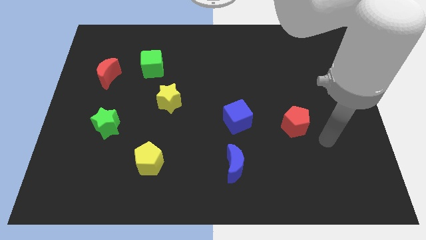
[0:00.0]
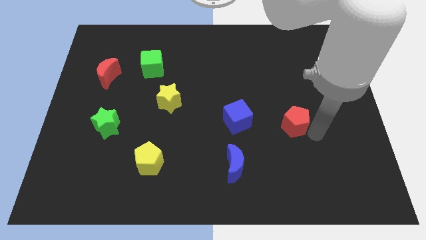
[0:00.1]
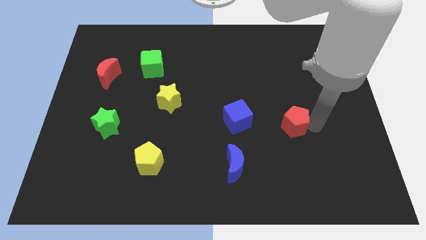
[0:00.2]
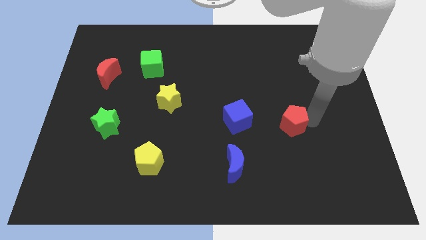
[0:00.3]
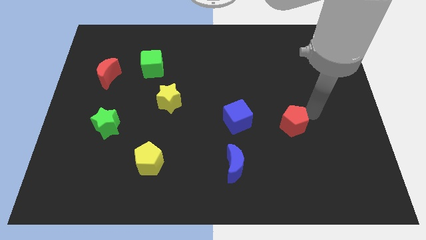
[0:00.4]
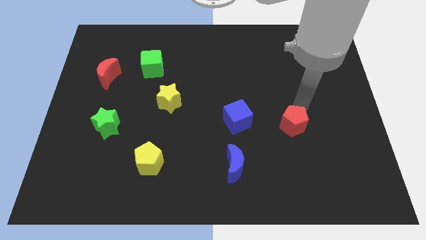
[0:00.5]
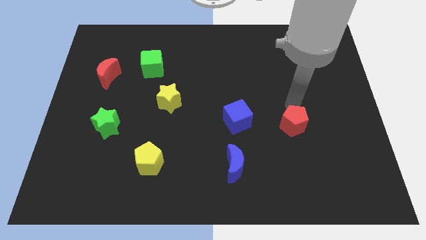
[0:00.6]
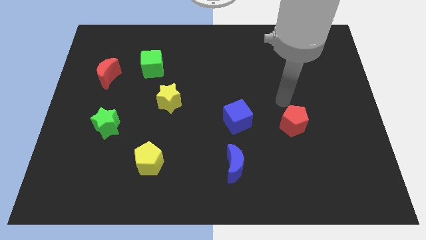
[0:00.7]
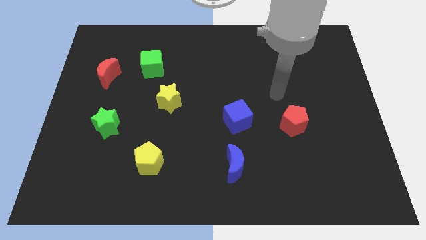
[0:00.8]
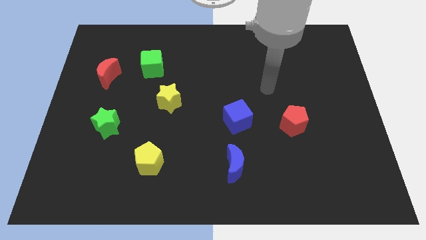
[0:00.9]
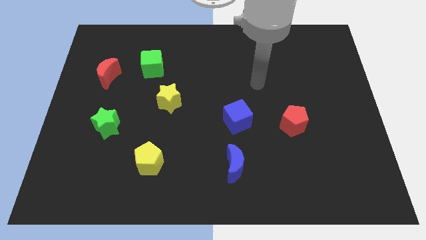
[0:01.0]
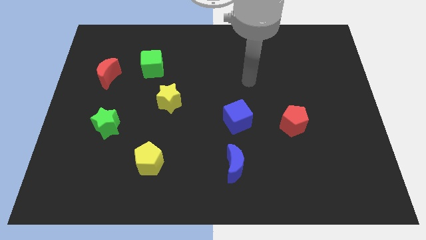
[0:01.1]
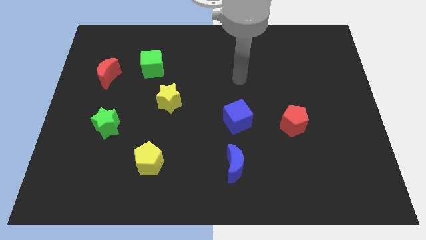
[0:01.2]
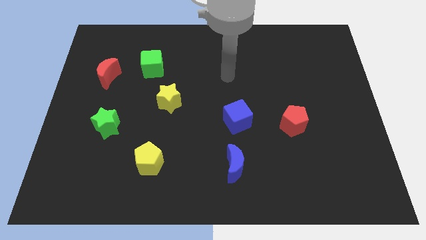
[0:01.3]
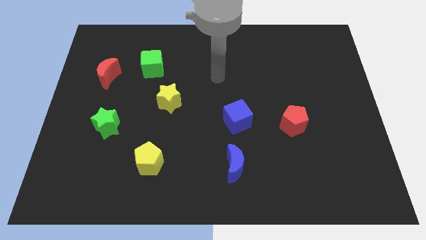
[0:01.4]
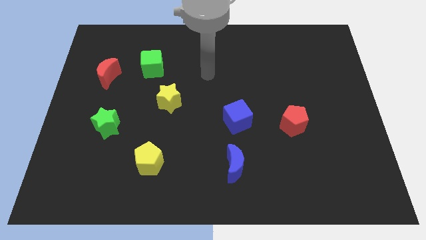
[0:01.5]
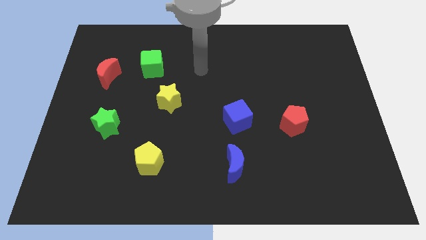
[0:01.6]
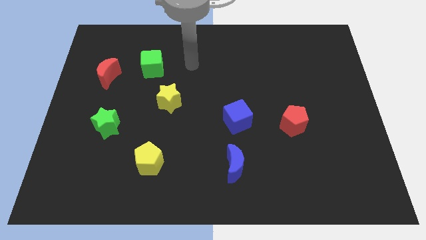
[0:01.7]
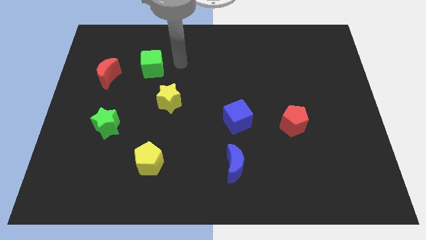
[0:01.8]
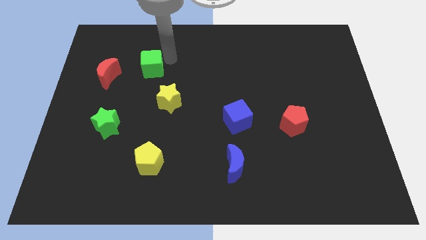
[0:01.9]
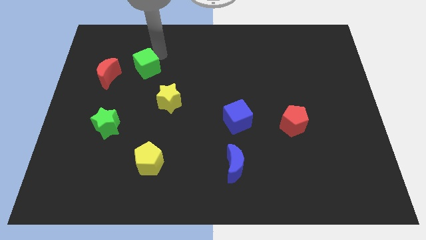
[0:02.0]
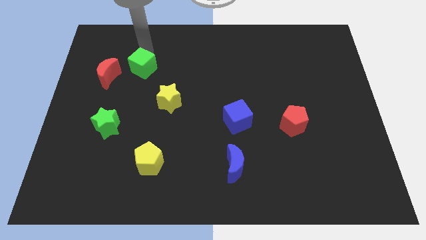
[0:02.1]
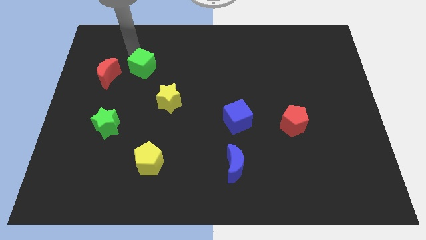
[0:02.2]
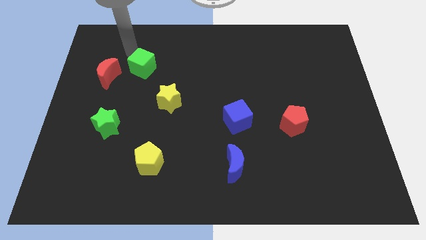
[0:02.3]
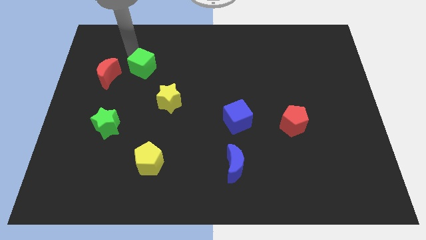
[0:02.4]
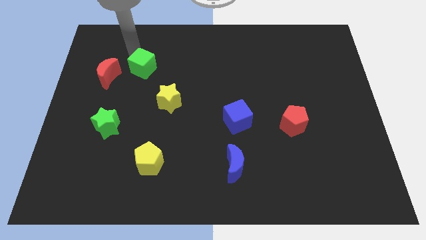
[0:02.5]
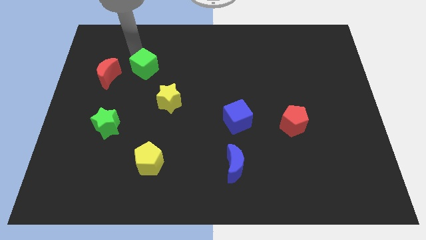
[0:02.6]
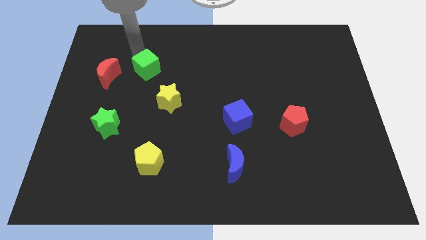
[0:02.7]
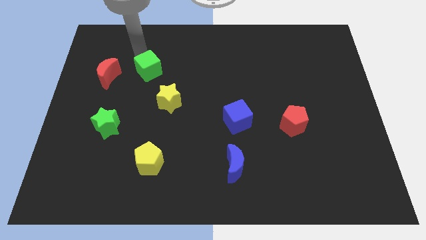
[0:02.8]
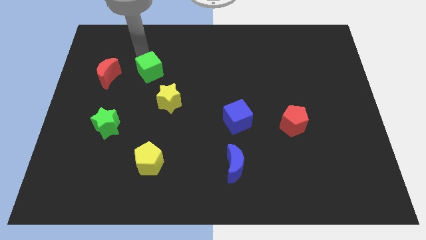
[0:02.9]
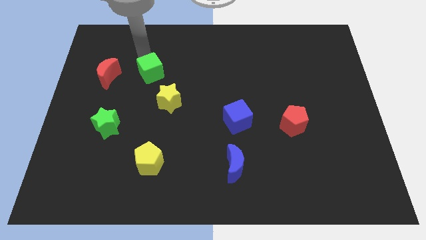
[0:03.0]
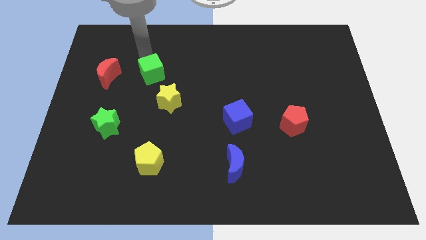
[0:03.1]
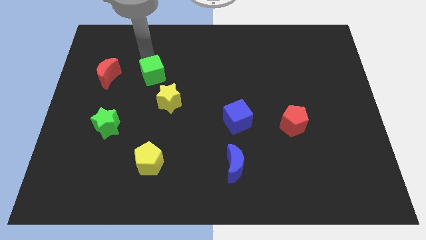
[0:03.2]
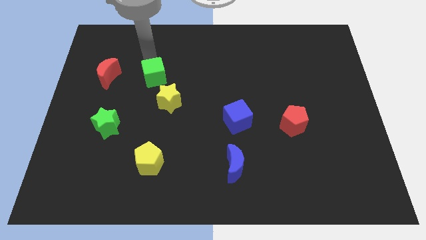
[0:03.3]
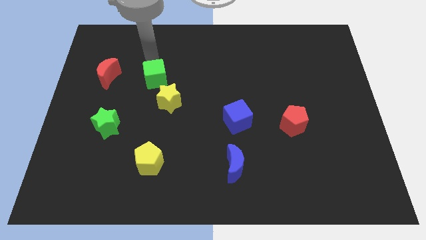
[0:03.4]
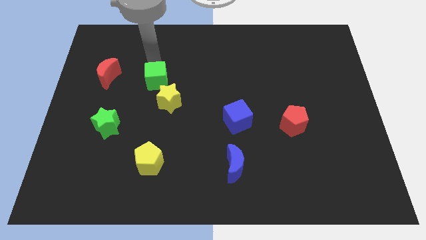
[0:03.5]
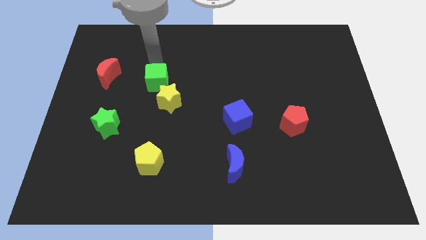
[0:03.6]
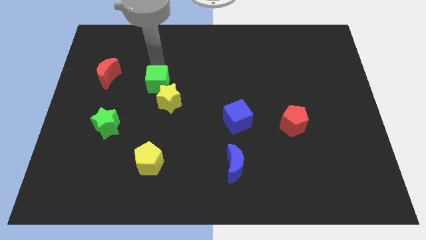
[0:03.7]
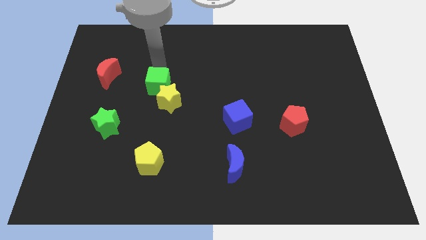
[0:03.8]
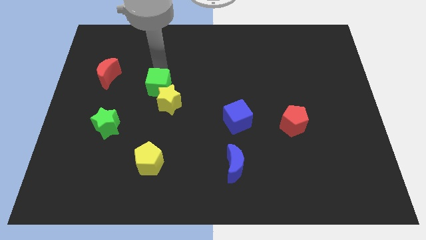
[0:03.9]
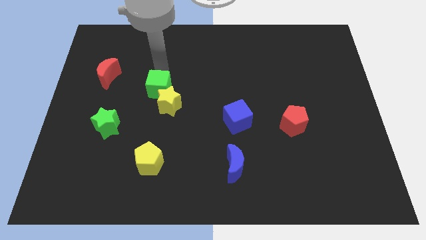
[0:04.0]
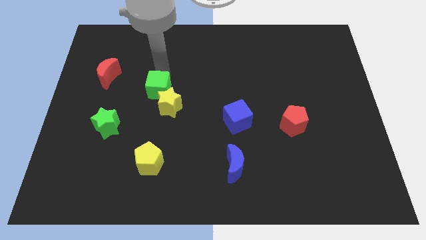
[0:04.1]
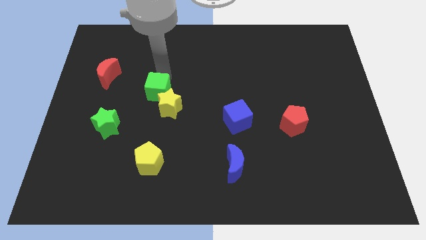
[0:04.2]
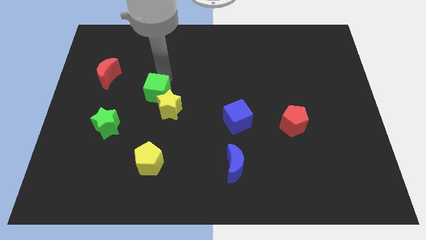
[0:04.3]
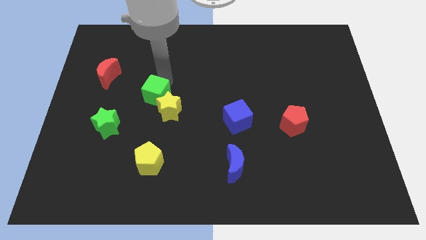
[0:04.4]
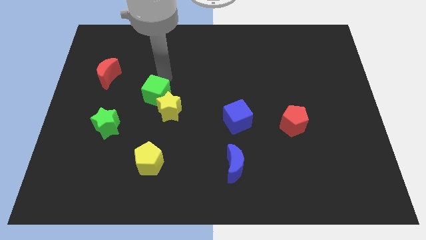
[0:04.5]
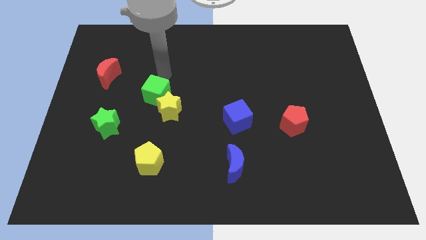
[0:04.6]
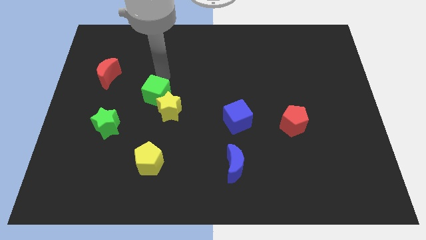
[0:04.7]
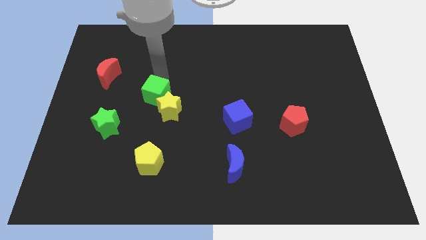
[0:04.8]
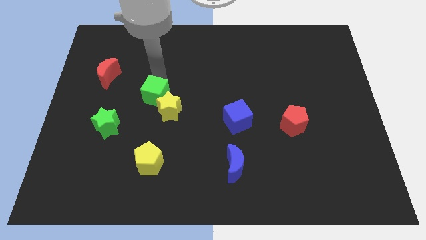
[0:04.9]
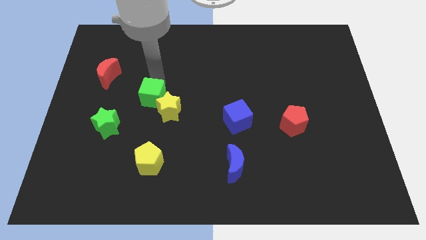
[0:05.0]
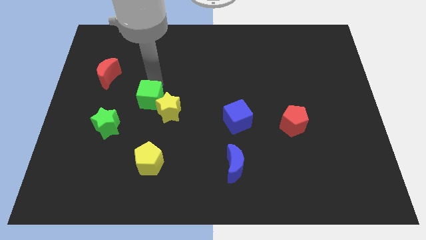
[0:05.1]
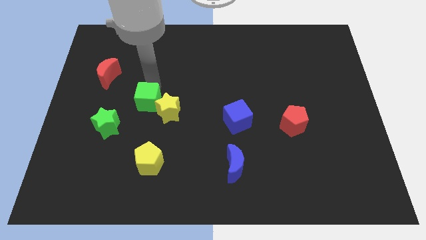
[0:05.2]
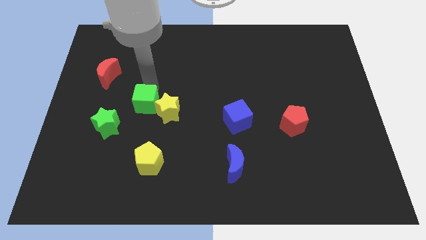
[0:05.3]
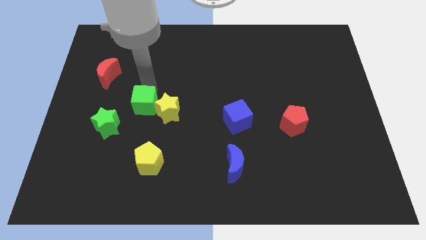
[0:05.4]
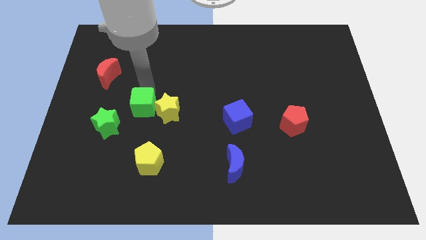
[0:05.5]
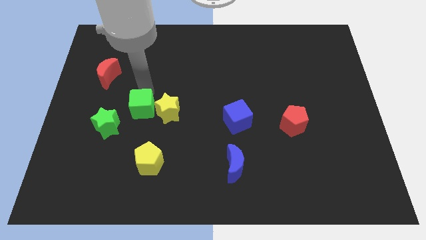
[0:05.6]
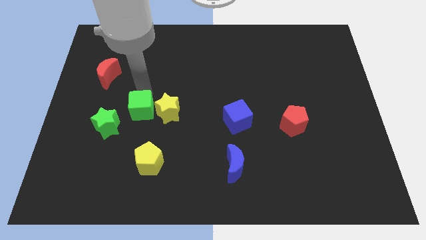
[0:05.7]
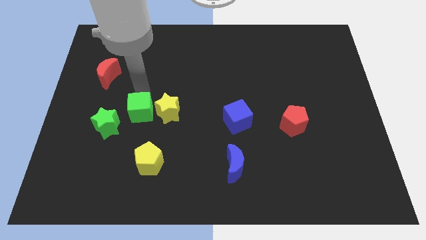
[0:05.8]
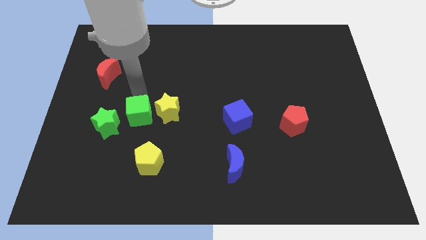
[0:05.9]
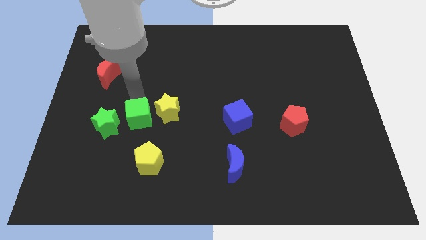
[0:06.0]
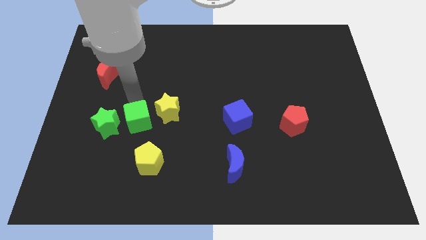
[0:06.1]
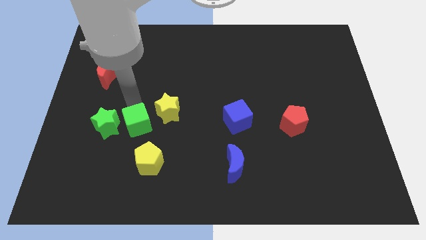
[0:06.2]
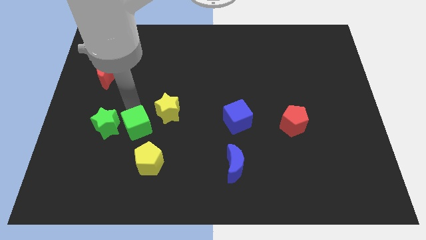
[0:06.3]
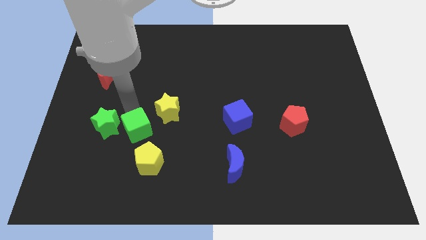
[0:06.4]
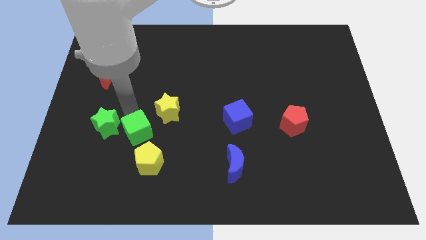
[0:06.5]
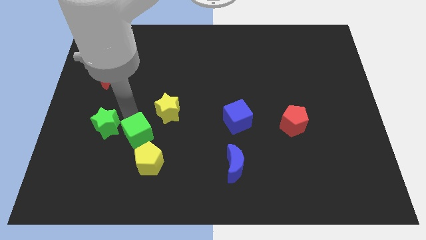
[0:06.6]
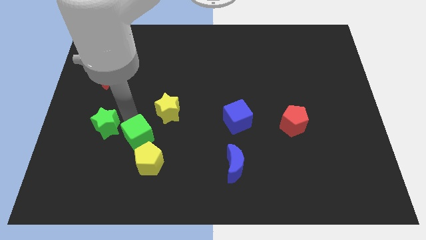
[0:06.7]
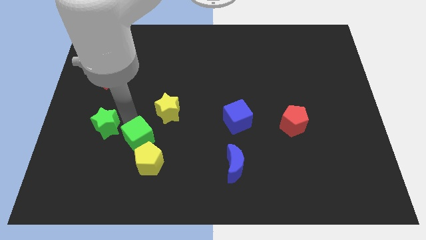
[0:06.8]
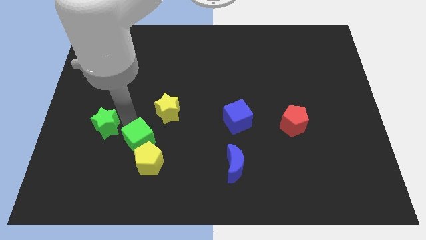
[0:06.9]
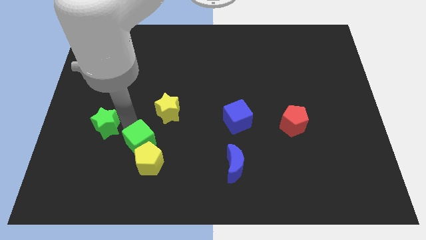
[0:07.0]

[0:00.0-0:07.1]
put the green cube to the yellow pentagon
